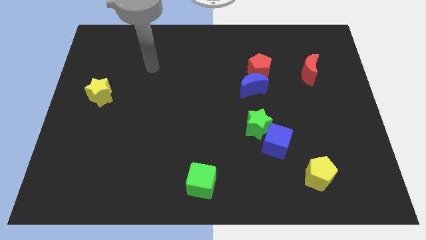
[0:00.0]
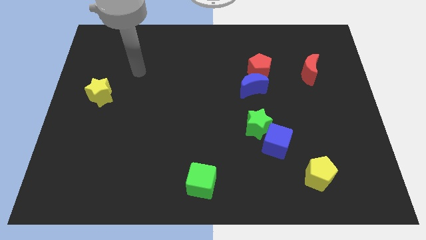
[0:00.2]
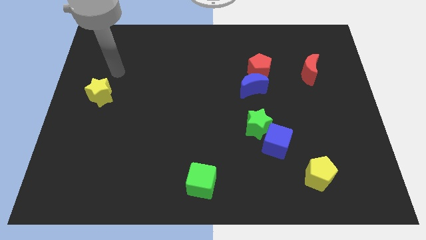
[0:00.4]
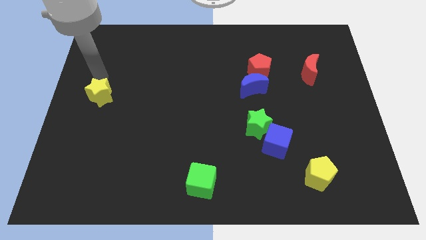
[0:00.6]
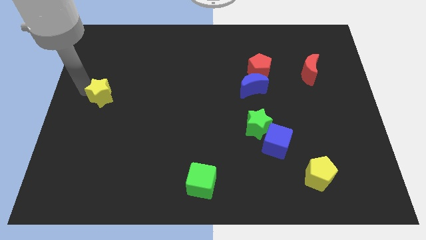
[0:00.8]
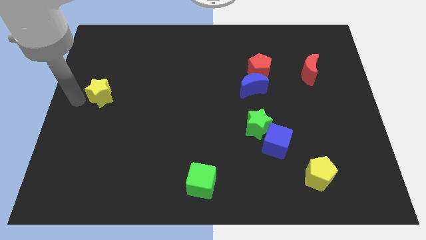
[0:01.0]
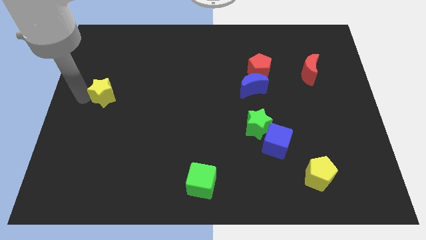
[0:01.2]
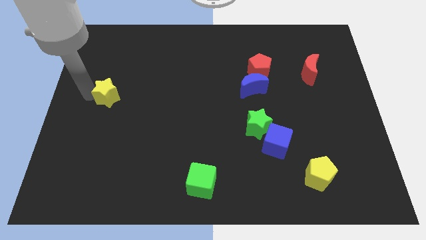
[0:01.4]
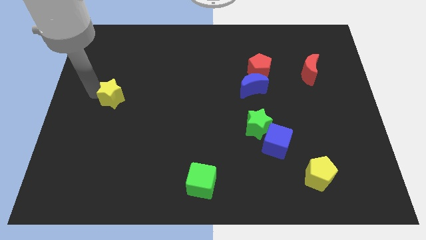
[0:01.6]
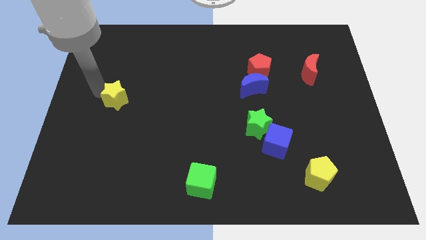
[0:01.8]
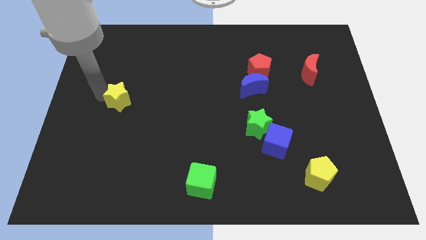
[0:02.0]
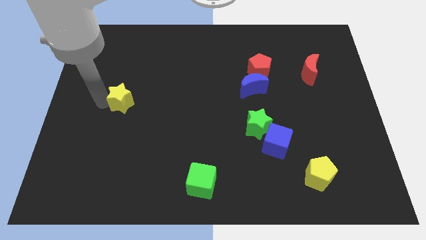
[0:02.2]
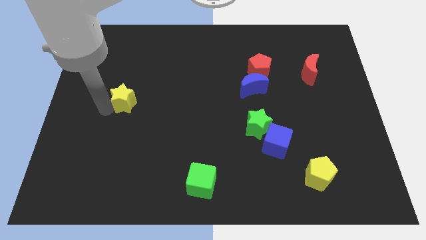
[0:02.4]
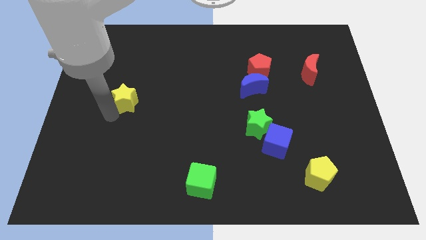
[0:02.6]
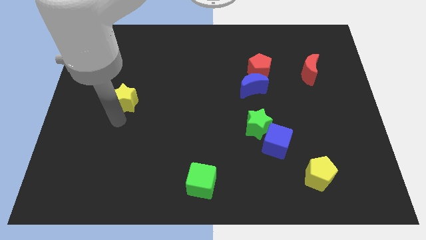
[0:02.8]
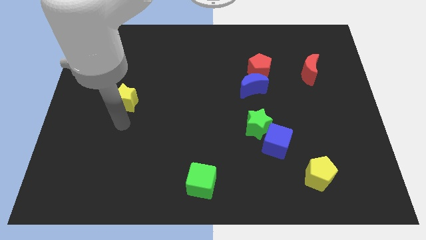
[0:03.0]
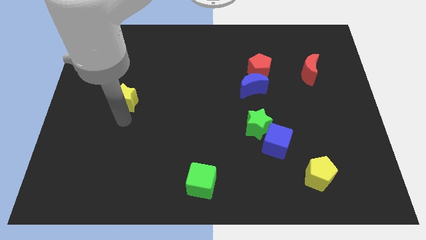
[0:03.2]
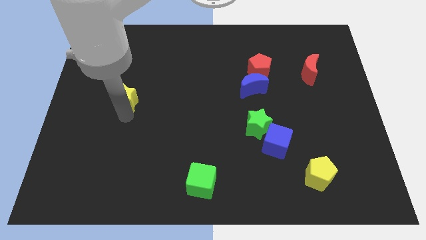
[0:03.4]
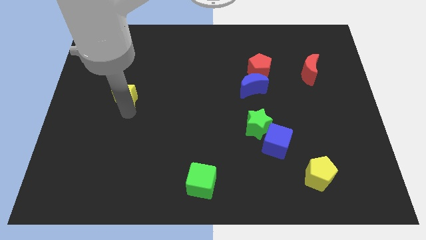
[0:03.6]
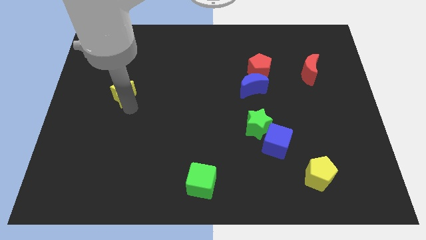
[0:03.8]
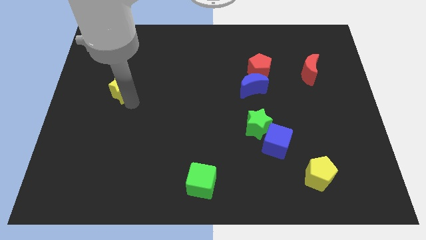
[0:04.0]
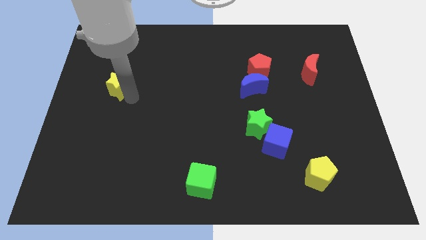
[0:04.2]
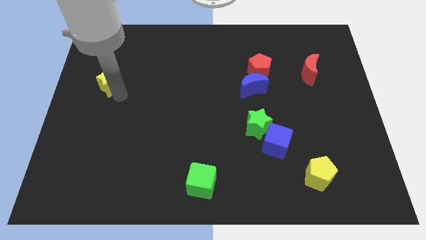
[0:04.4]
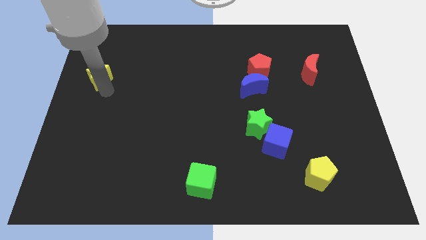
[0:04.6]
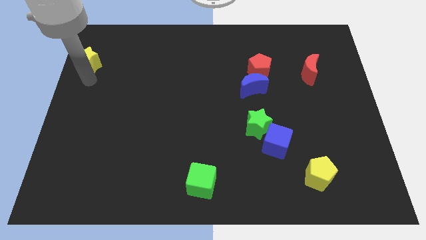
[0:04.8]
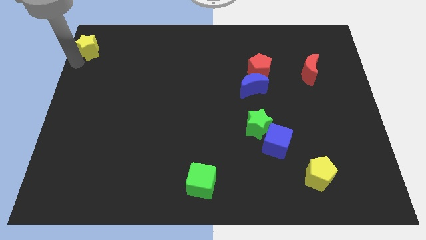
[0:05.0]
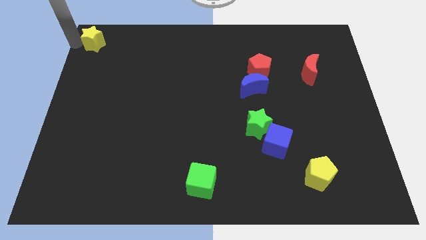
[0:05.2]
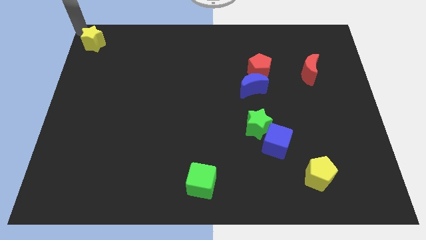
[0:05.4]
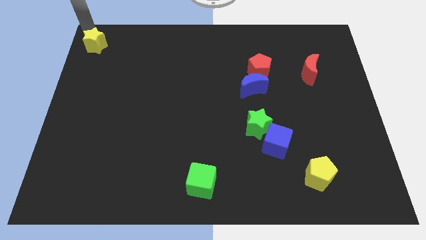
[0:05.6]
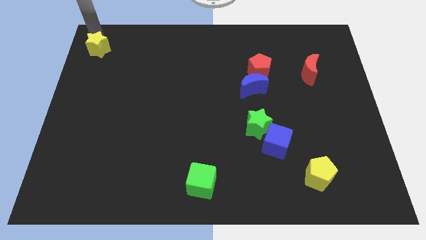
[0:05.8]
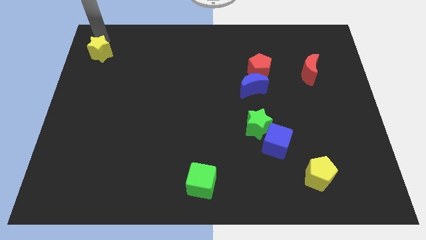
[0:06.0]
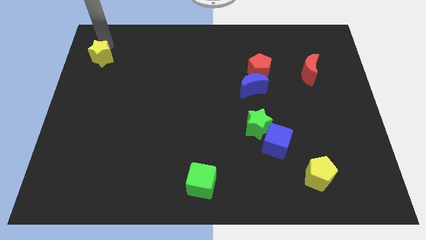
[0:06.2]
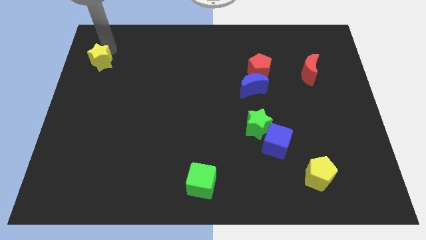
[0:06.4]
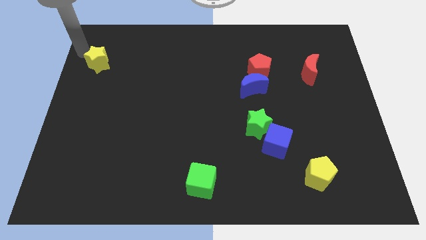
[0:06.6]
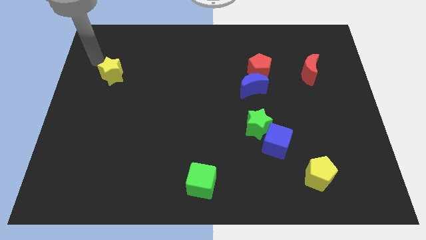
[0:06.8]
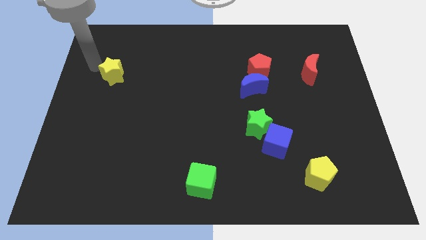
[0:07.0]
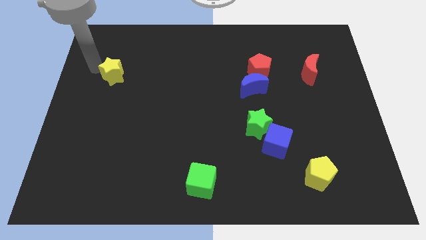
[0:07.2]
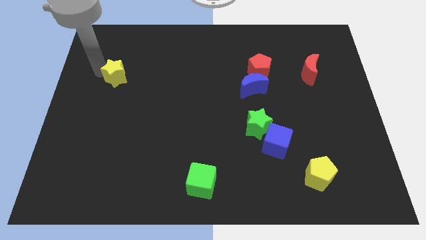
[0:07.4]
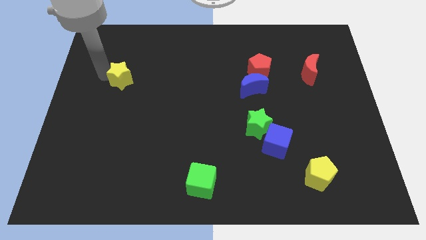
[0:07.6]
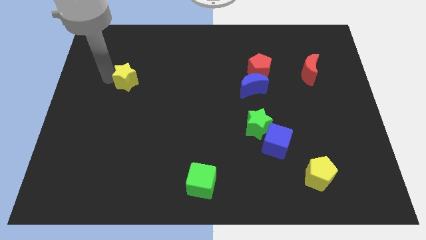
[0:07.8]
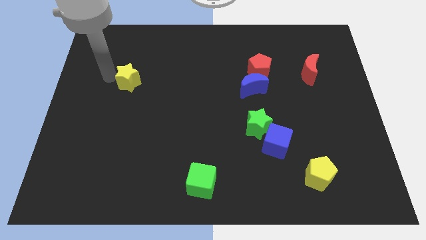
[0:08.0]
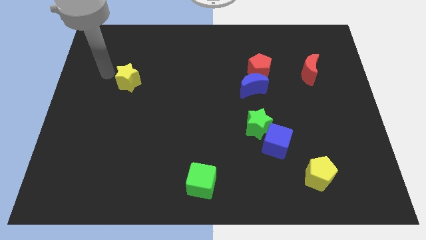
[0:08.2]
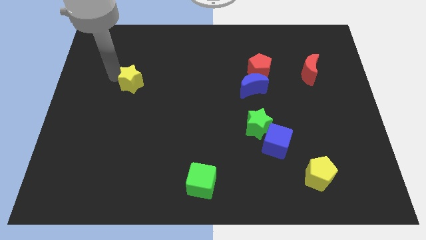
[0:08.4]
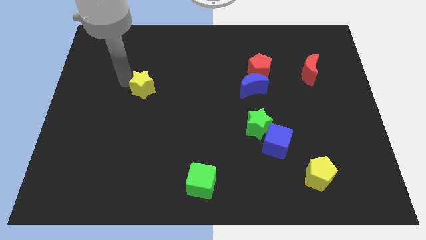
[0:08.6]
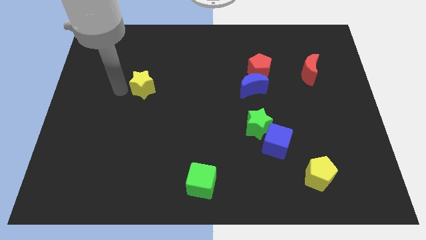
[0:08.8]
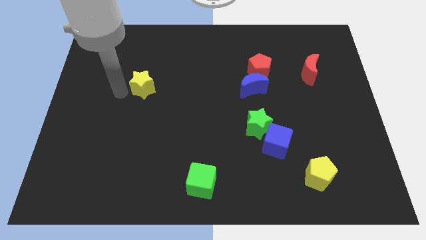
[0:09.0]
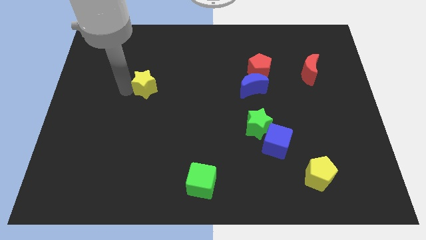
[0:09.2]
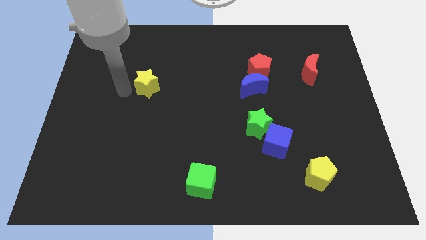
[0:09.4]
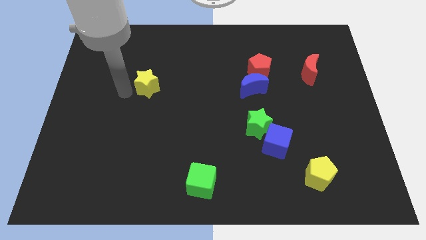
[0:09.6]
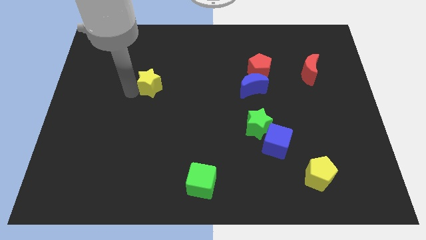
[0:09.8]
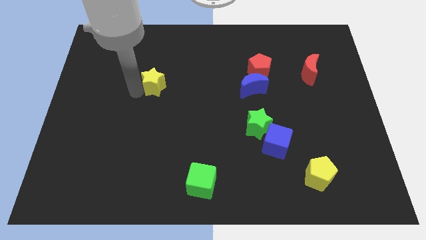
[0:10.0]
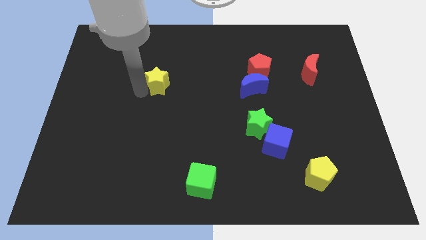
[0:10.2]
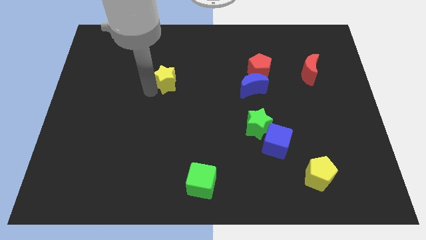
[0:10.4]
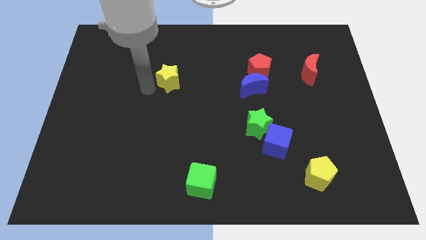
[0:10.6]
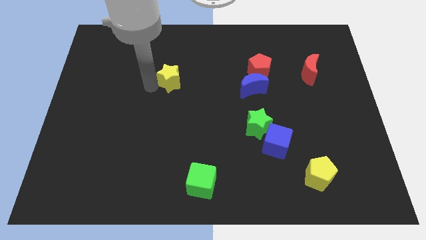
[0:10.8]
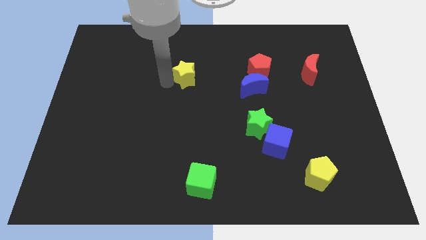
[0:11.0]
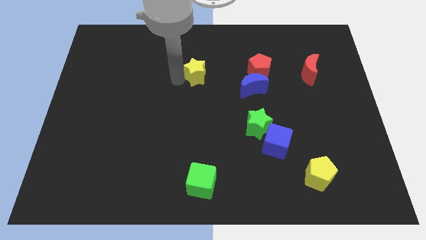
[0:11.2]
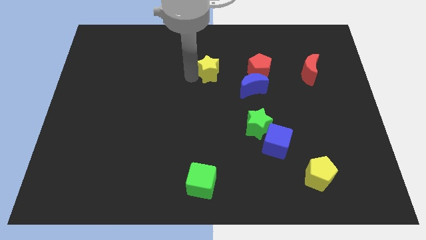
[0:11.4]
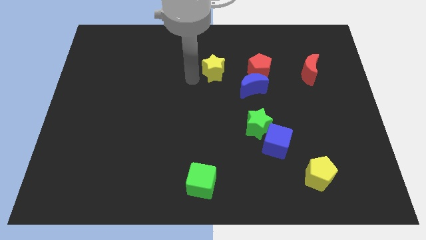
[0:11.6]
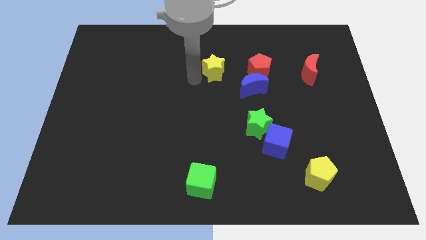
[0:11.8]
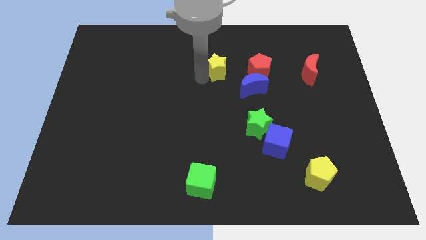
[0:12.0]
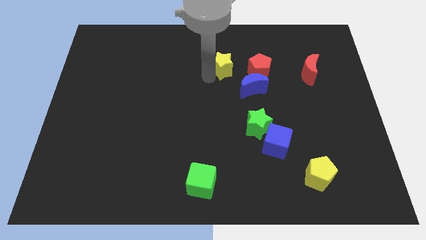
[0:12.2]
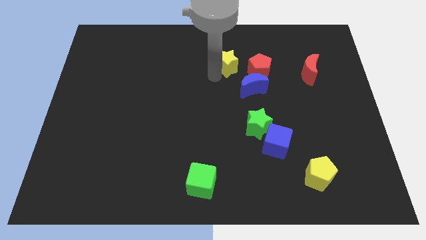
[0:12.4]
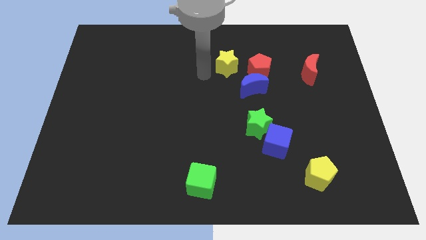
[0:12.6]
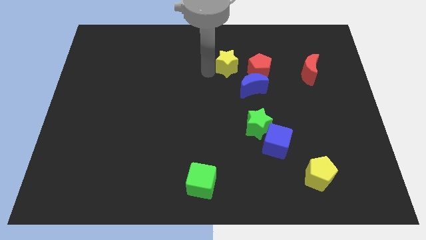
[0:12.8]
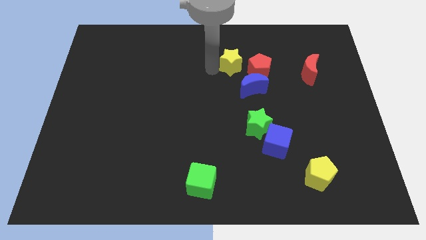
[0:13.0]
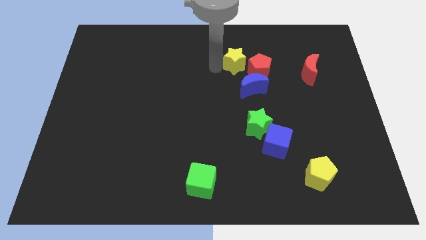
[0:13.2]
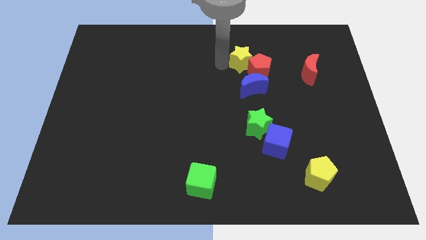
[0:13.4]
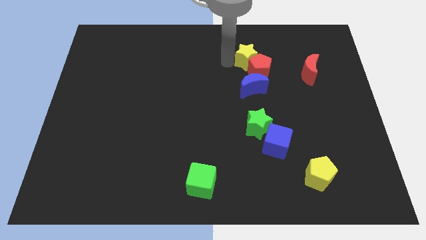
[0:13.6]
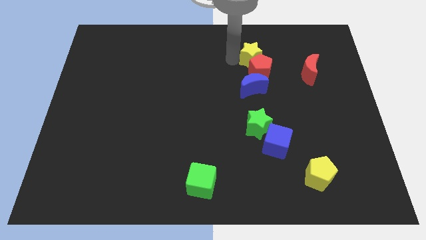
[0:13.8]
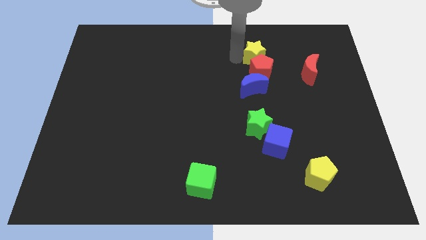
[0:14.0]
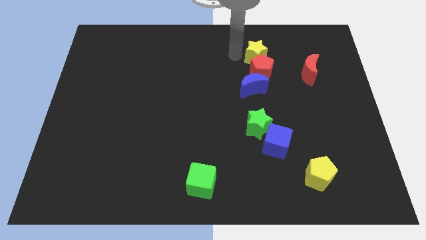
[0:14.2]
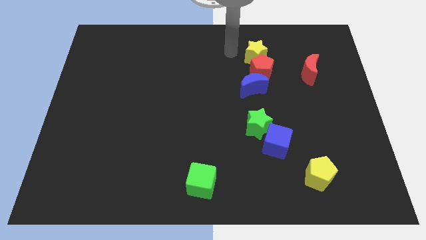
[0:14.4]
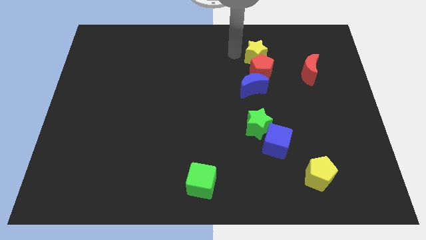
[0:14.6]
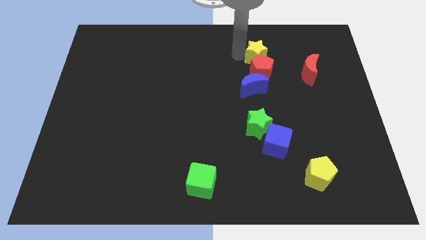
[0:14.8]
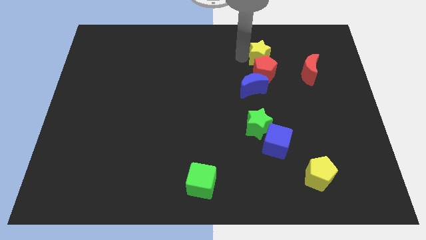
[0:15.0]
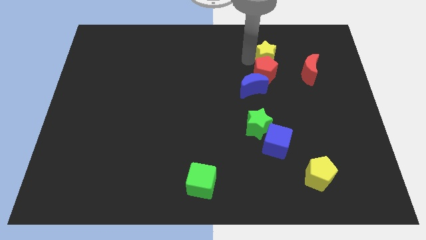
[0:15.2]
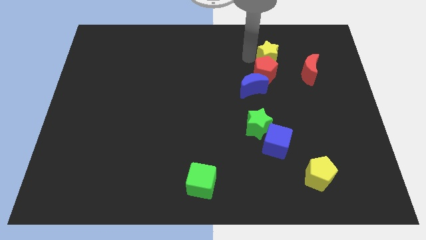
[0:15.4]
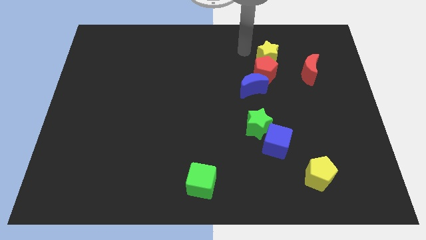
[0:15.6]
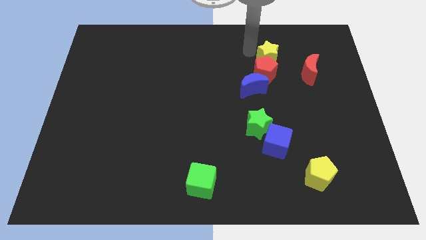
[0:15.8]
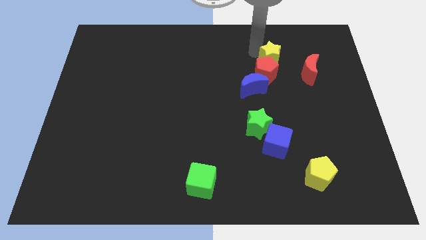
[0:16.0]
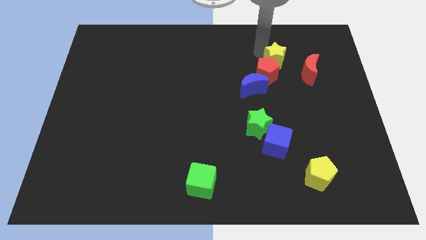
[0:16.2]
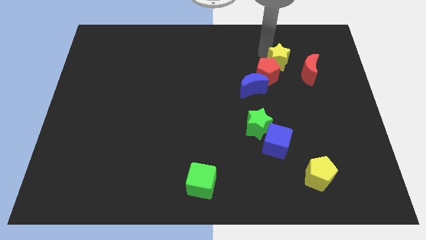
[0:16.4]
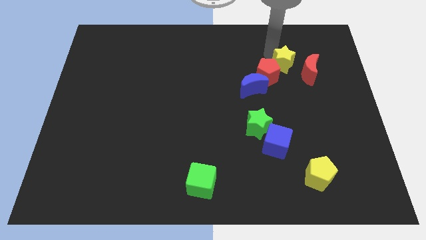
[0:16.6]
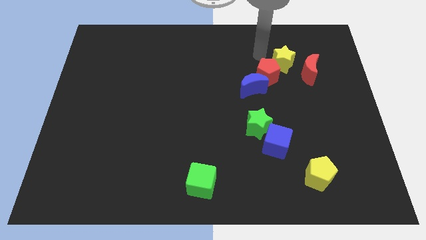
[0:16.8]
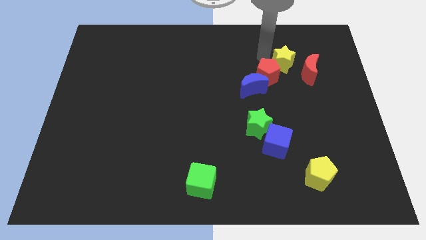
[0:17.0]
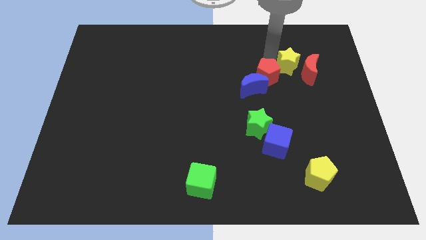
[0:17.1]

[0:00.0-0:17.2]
slide the yellow star towards the red moon
